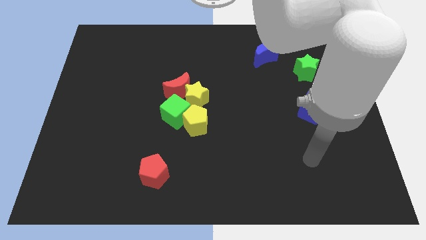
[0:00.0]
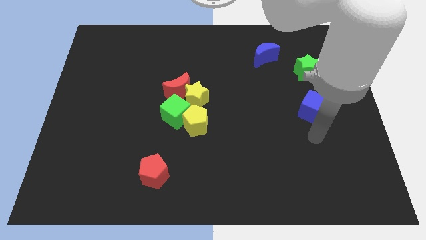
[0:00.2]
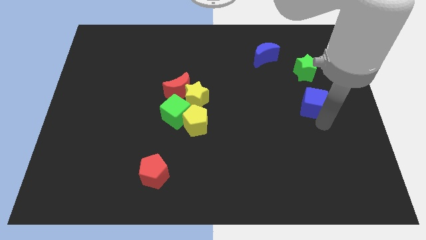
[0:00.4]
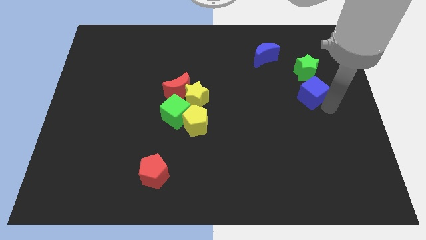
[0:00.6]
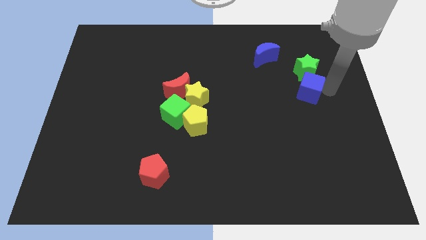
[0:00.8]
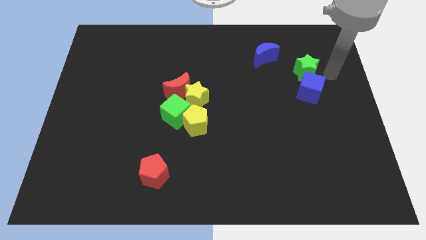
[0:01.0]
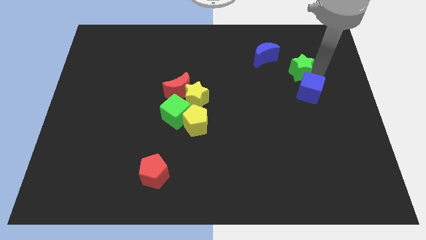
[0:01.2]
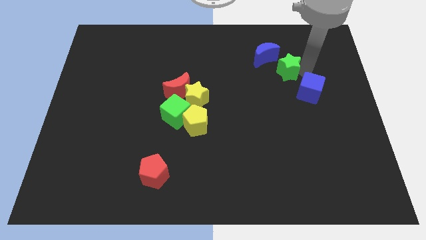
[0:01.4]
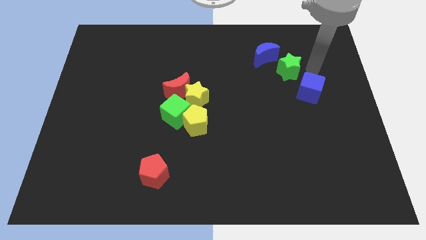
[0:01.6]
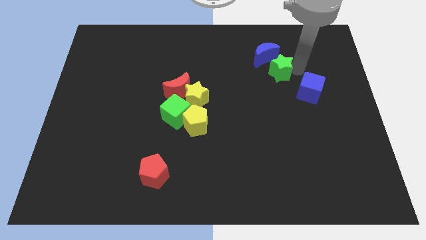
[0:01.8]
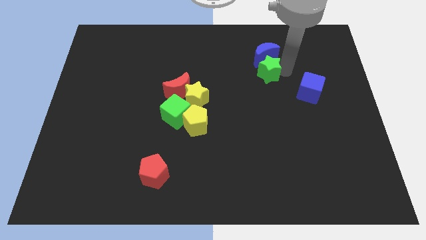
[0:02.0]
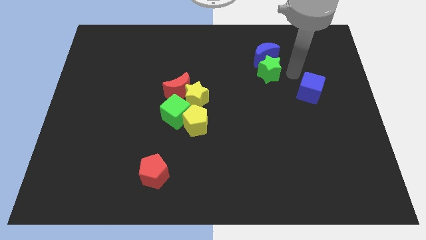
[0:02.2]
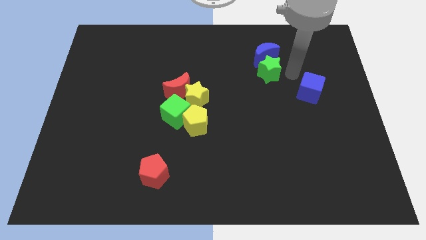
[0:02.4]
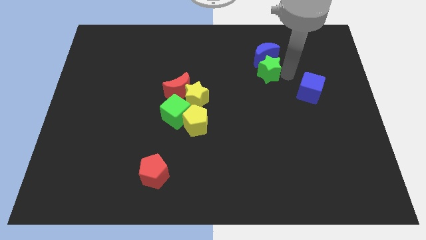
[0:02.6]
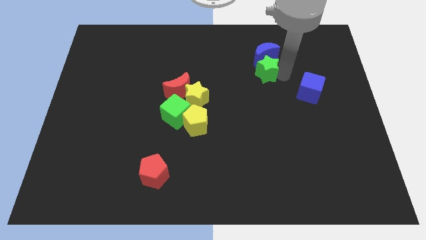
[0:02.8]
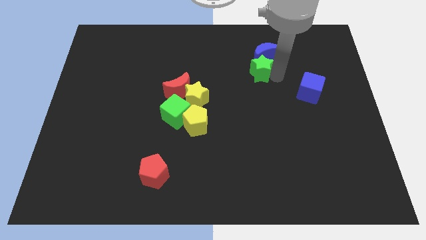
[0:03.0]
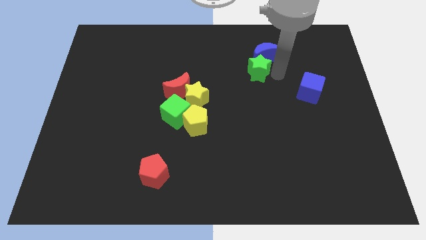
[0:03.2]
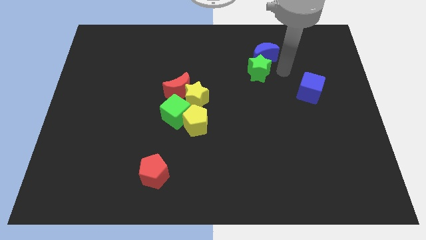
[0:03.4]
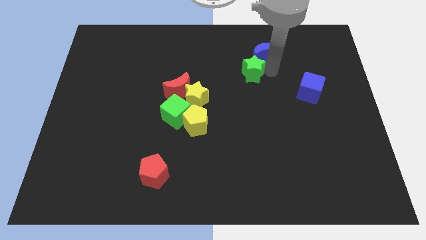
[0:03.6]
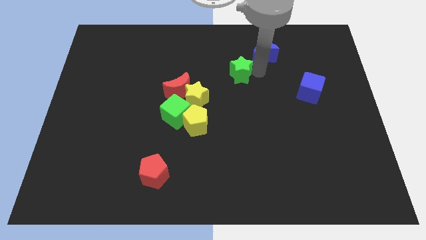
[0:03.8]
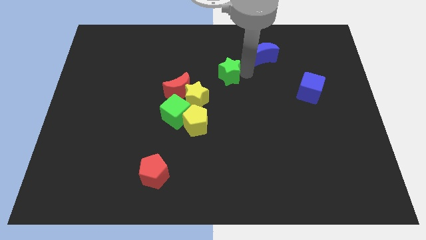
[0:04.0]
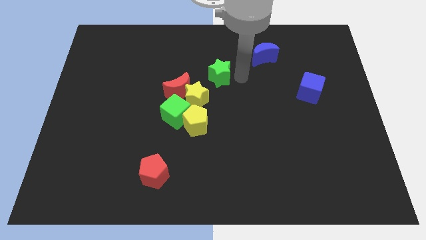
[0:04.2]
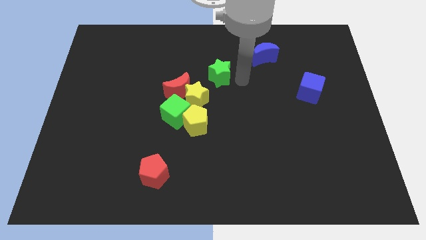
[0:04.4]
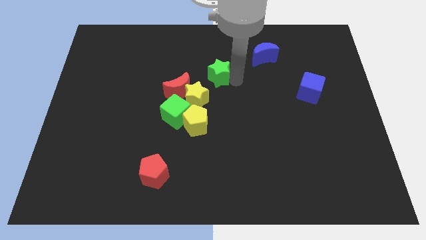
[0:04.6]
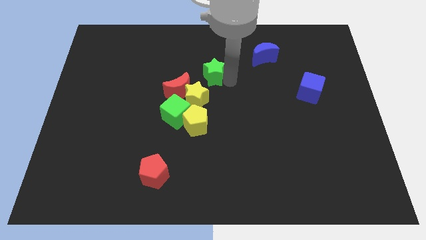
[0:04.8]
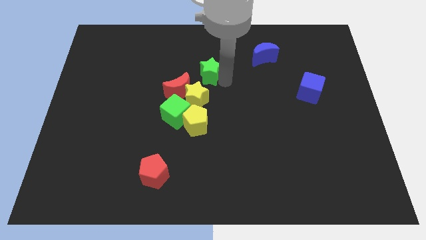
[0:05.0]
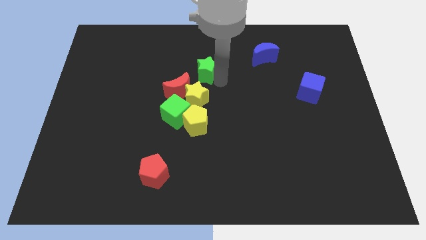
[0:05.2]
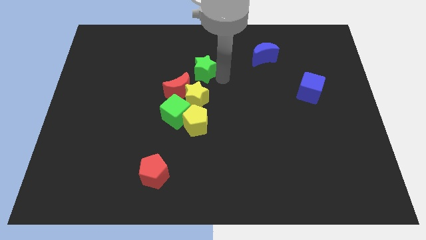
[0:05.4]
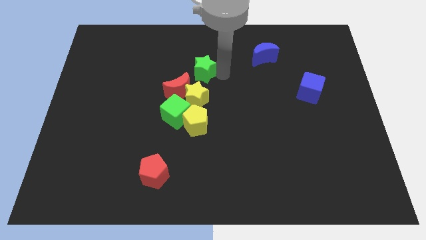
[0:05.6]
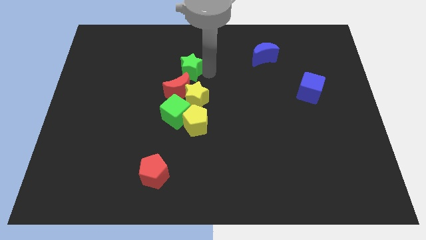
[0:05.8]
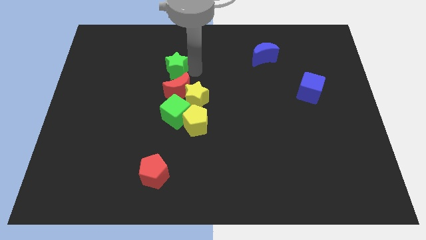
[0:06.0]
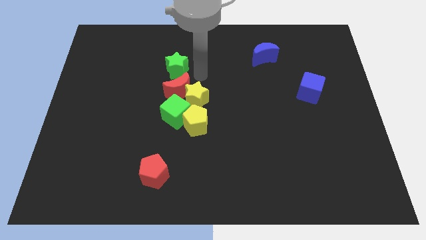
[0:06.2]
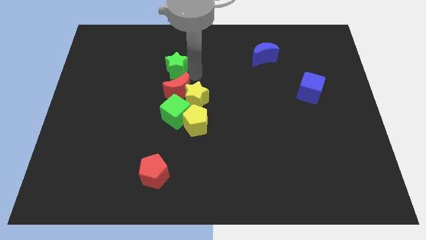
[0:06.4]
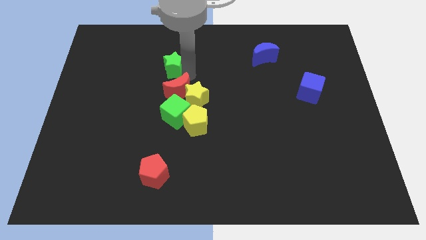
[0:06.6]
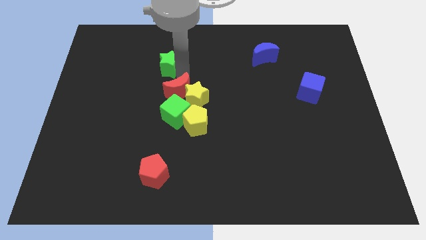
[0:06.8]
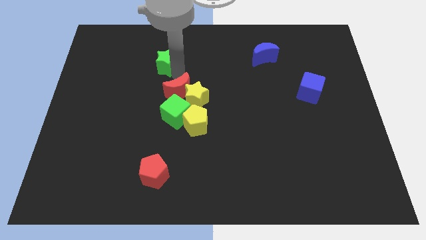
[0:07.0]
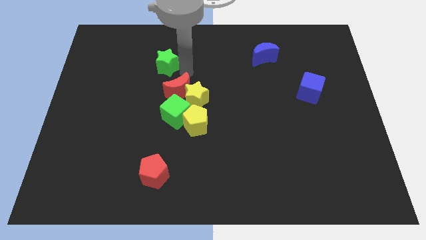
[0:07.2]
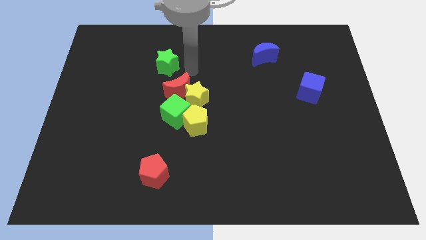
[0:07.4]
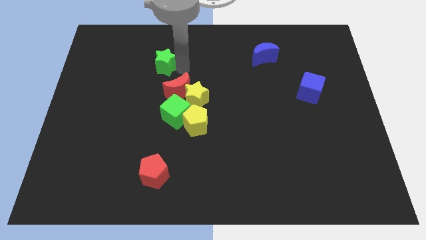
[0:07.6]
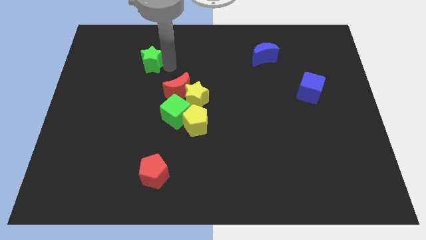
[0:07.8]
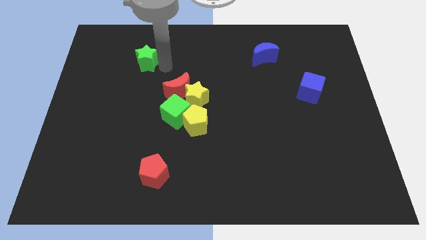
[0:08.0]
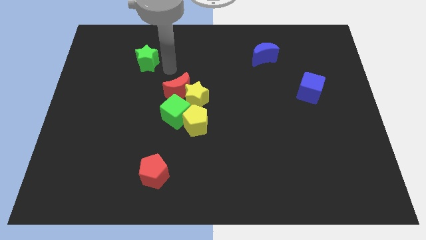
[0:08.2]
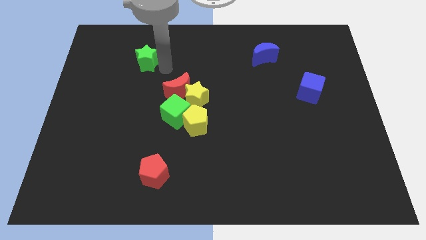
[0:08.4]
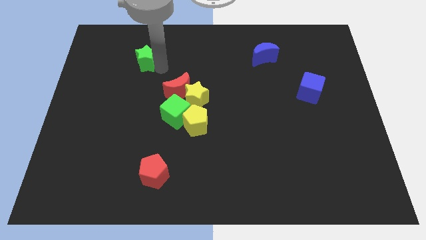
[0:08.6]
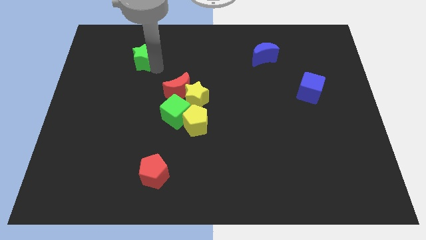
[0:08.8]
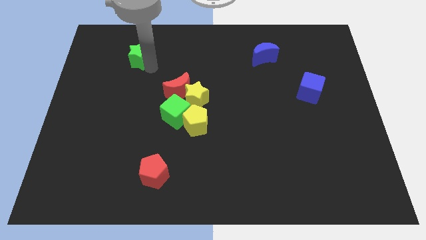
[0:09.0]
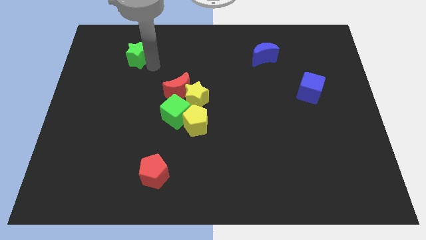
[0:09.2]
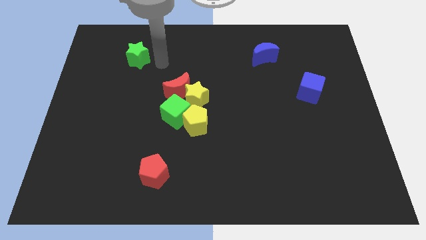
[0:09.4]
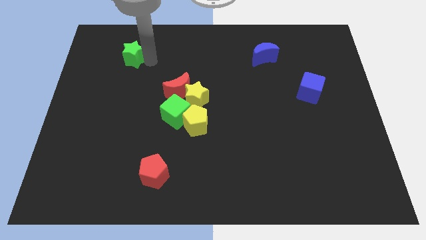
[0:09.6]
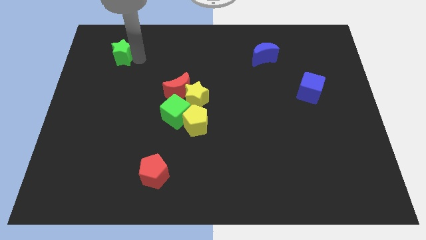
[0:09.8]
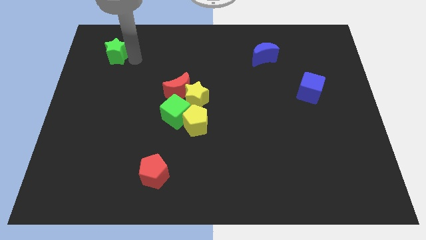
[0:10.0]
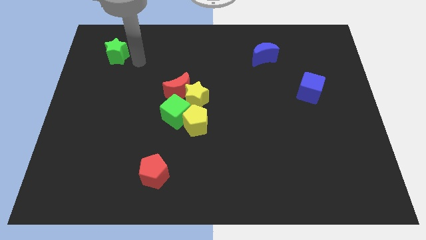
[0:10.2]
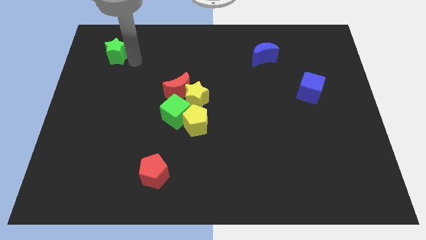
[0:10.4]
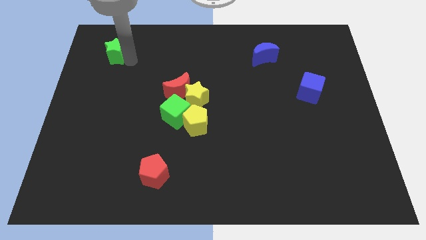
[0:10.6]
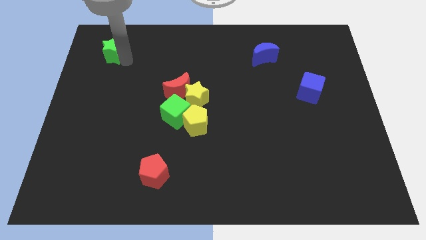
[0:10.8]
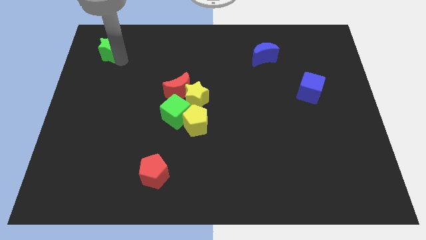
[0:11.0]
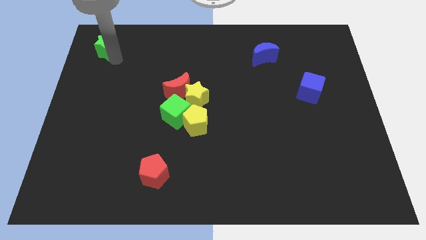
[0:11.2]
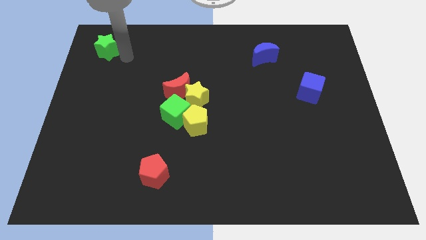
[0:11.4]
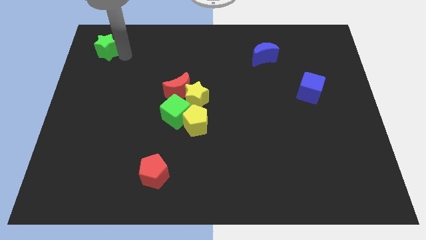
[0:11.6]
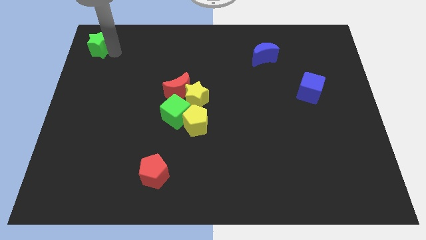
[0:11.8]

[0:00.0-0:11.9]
move the green star to the top left of the board

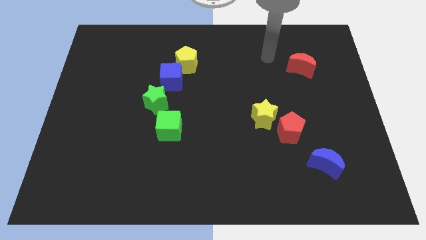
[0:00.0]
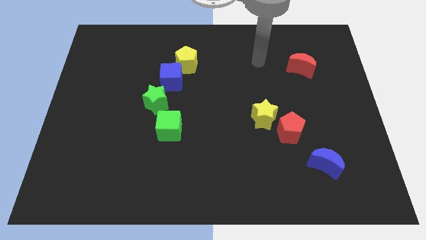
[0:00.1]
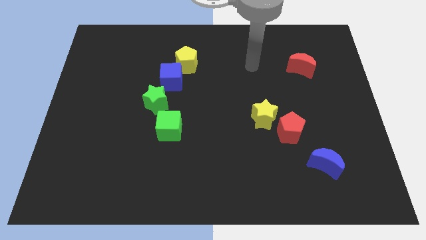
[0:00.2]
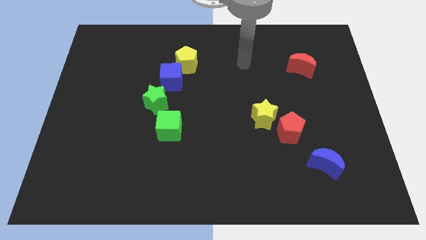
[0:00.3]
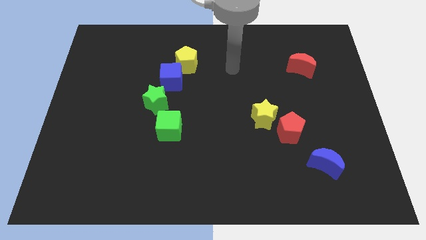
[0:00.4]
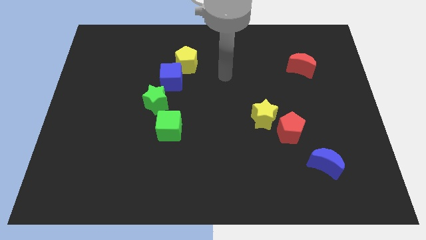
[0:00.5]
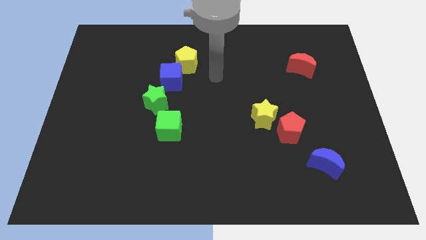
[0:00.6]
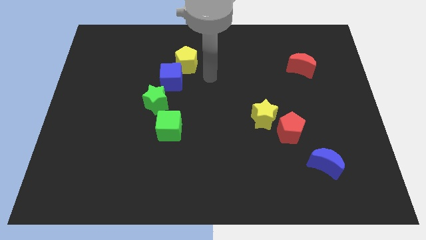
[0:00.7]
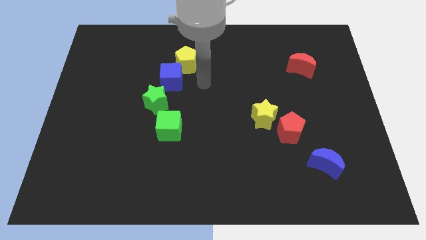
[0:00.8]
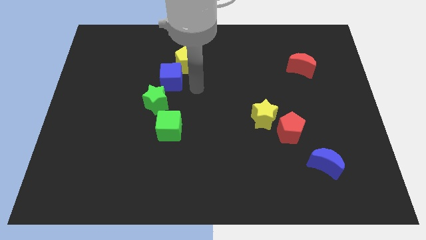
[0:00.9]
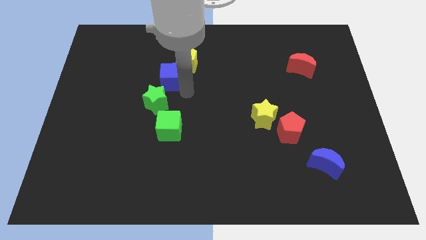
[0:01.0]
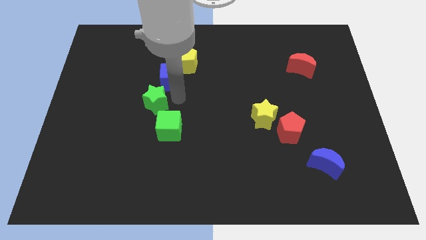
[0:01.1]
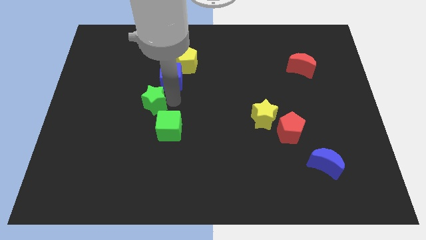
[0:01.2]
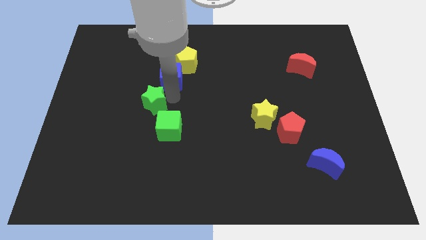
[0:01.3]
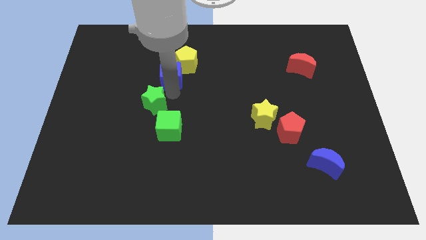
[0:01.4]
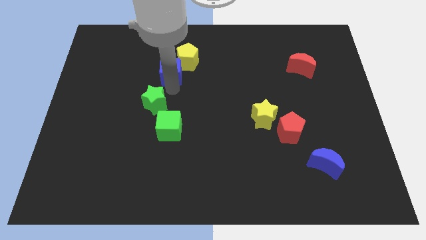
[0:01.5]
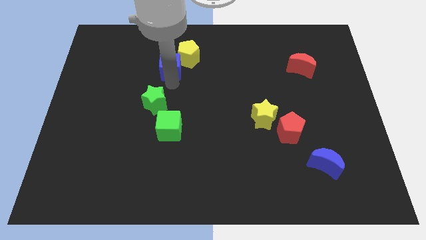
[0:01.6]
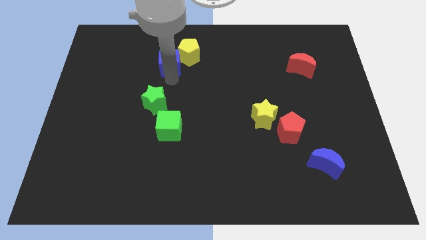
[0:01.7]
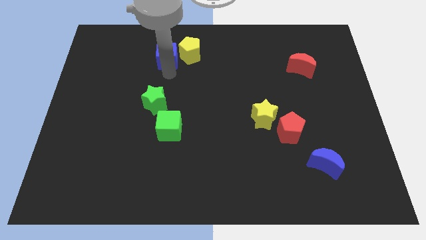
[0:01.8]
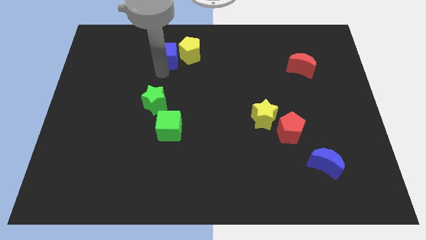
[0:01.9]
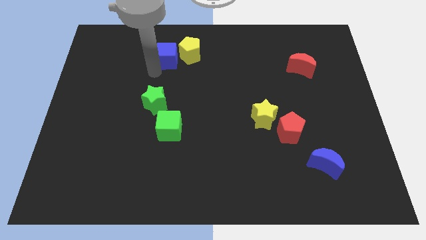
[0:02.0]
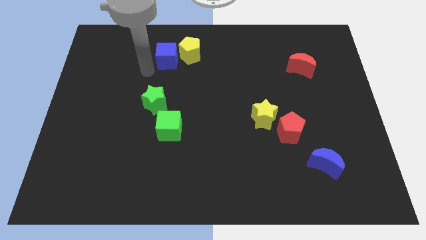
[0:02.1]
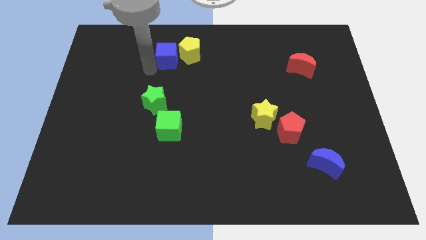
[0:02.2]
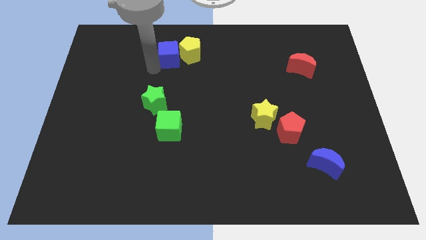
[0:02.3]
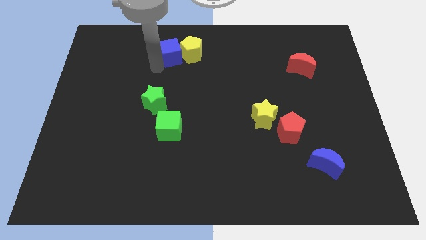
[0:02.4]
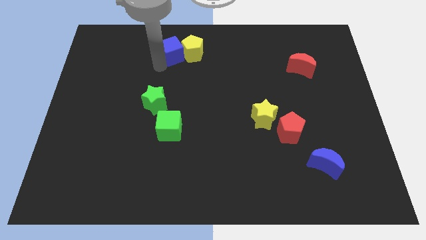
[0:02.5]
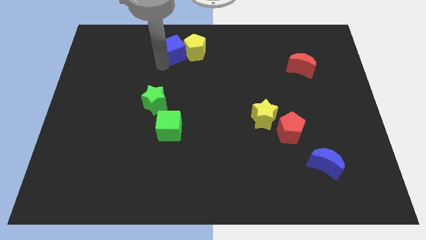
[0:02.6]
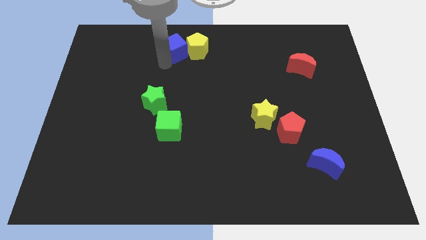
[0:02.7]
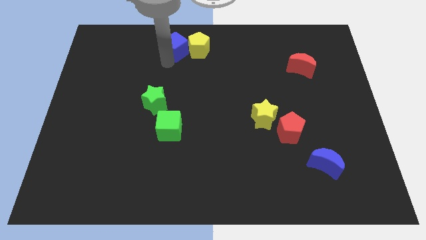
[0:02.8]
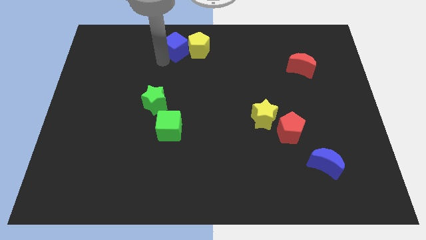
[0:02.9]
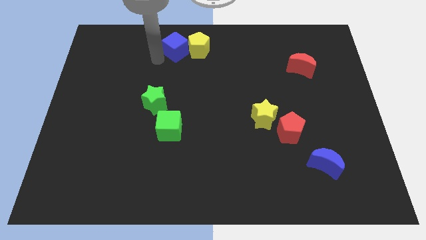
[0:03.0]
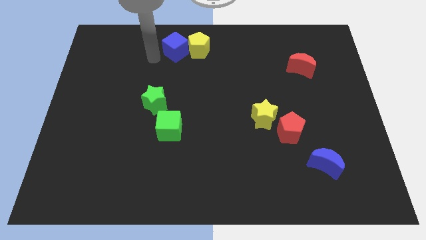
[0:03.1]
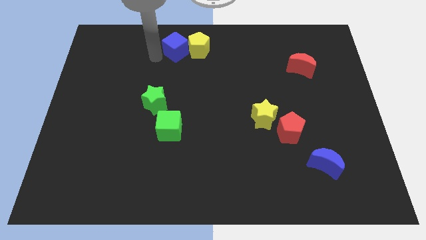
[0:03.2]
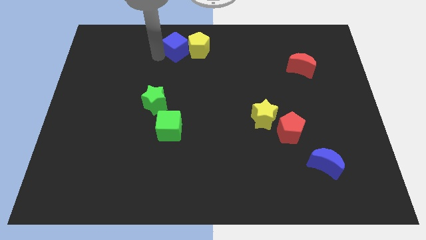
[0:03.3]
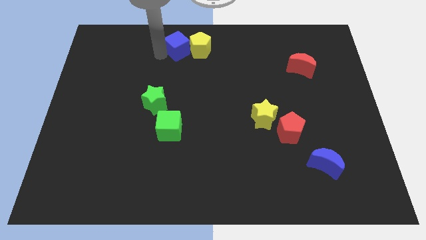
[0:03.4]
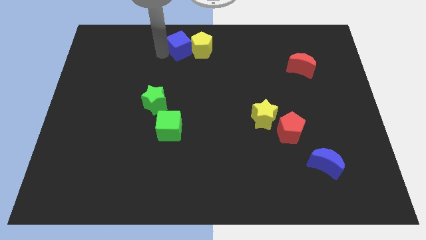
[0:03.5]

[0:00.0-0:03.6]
move the blue cube to the top
